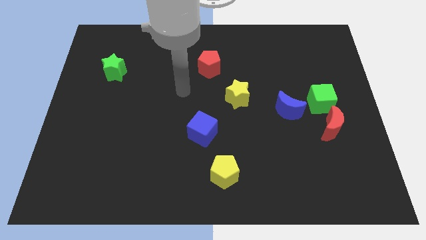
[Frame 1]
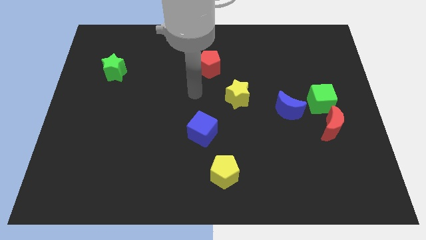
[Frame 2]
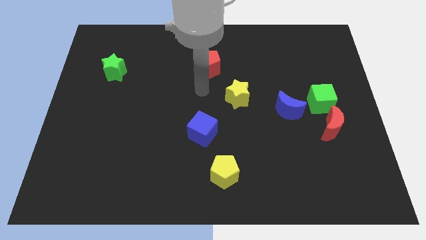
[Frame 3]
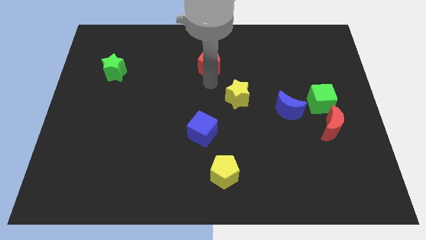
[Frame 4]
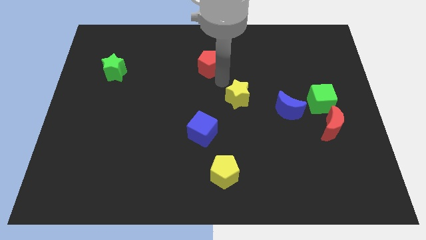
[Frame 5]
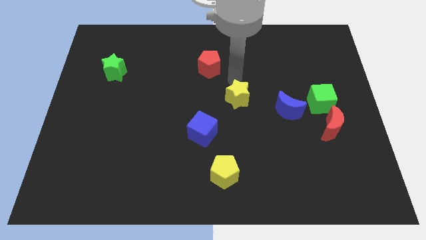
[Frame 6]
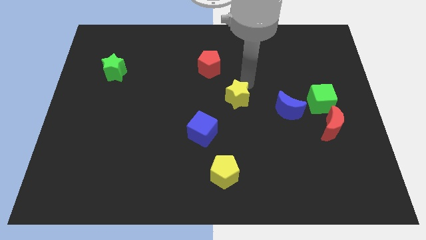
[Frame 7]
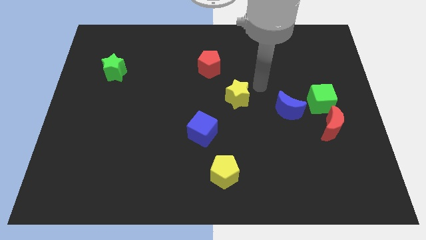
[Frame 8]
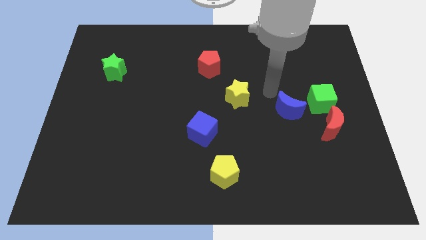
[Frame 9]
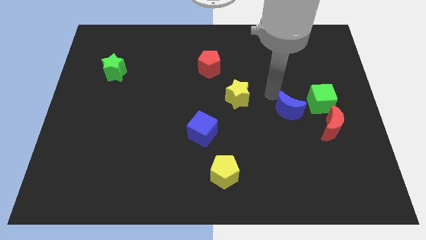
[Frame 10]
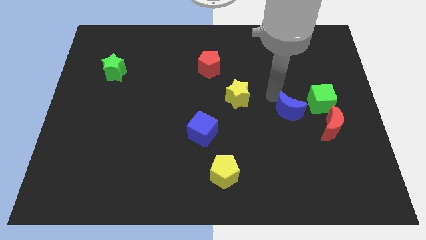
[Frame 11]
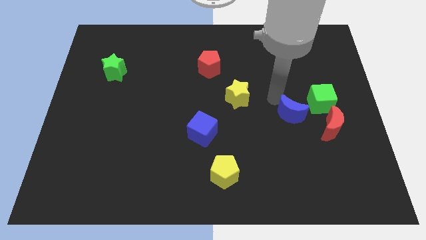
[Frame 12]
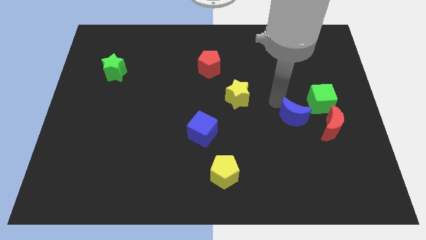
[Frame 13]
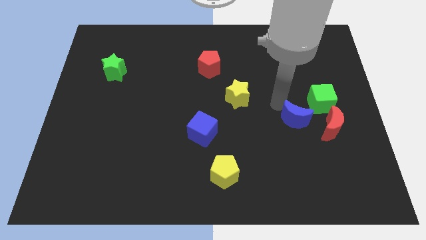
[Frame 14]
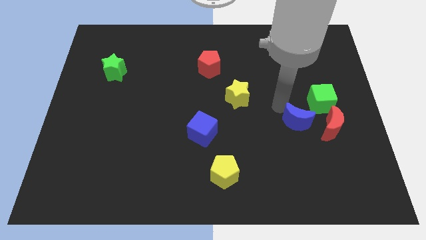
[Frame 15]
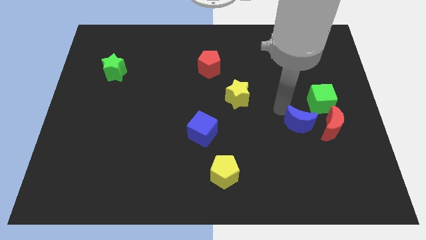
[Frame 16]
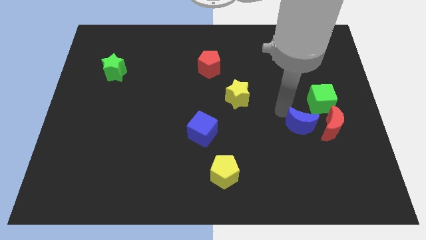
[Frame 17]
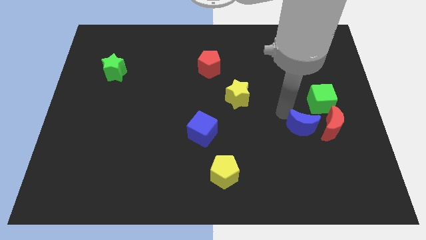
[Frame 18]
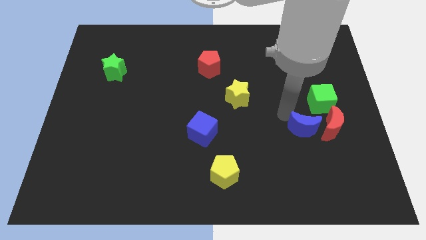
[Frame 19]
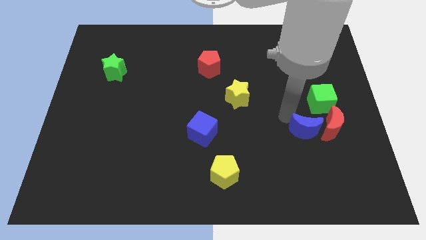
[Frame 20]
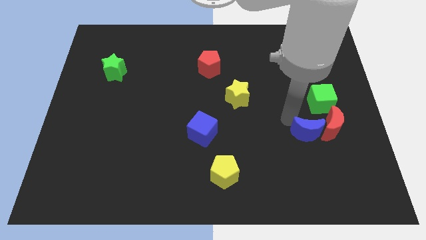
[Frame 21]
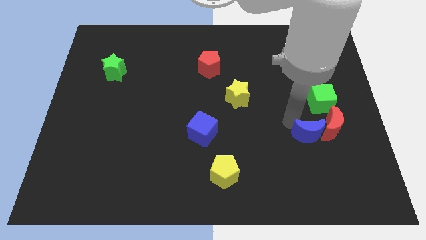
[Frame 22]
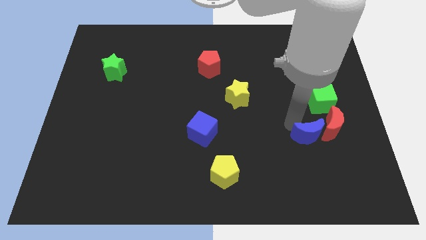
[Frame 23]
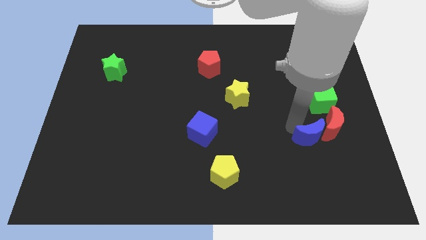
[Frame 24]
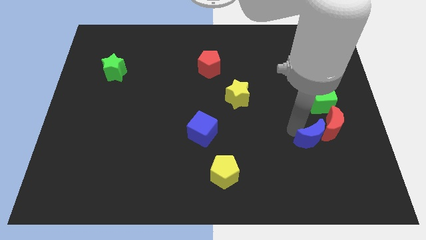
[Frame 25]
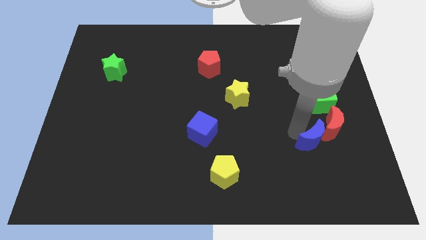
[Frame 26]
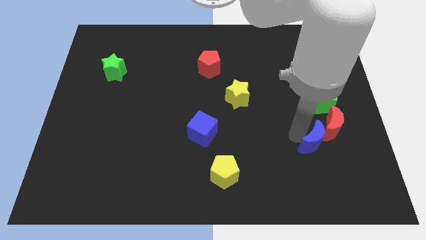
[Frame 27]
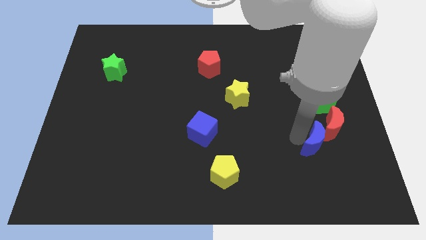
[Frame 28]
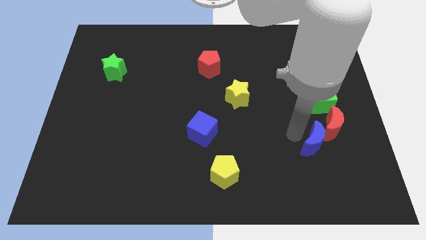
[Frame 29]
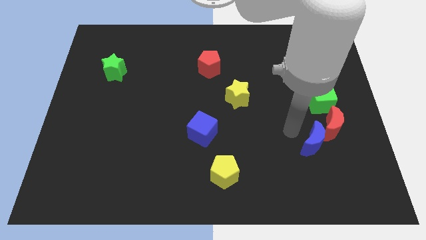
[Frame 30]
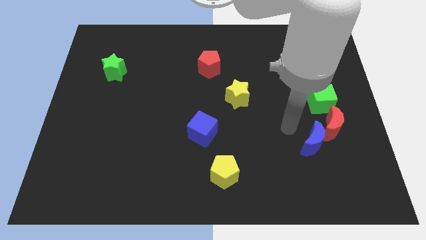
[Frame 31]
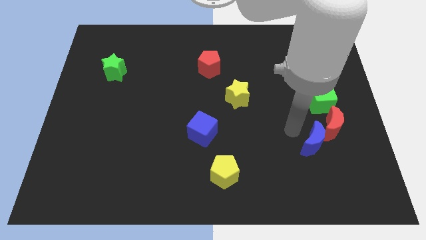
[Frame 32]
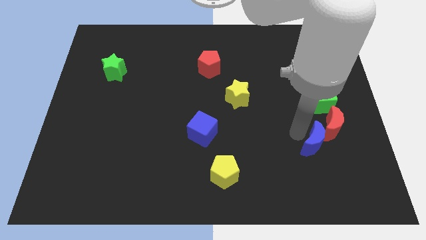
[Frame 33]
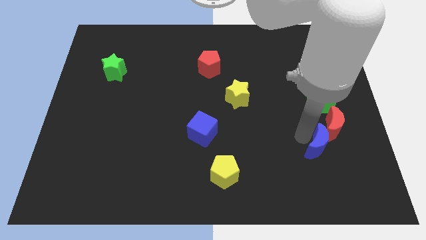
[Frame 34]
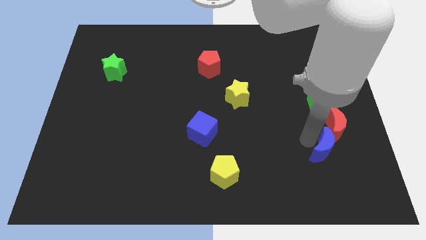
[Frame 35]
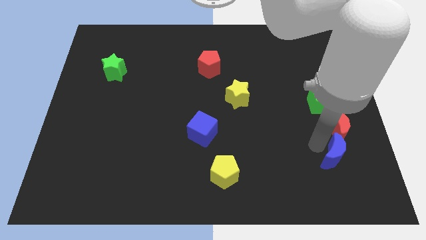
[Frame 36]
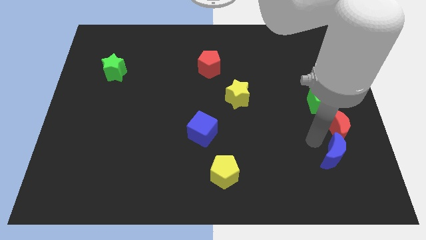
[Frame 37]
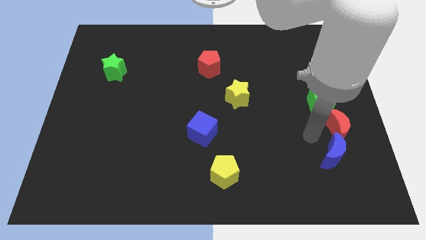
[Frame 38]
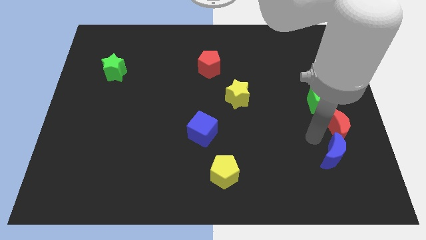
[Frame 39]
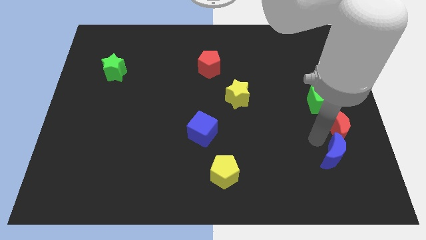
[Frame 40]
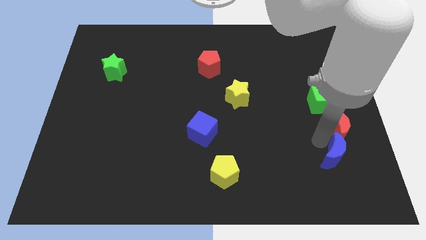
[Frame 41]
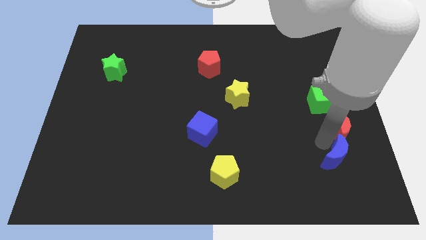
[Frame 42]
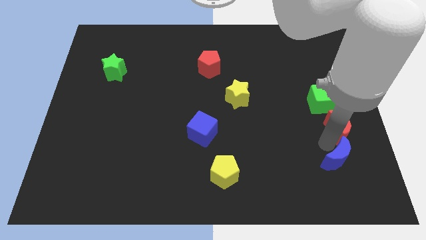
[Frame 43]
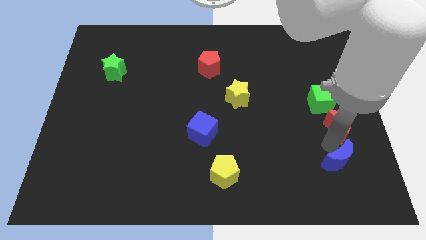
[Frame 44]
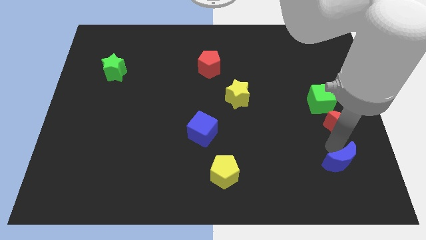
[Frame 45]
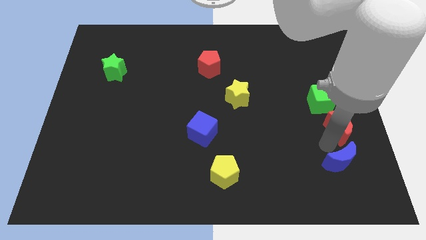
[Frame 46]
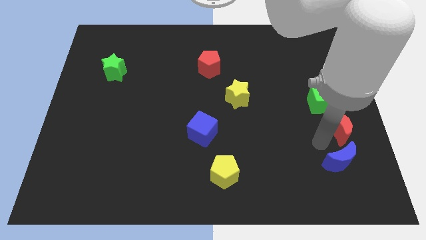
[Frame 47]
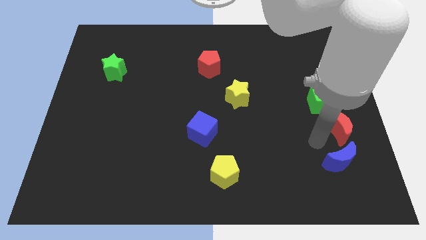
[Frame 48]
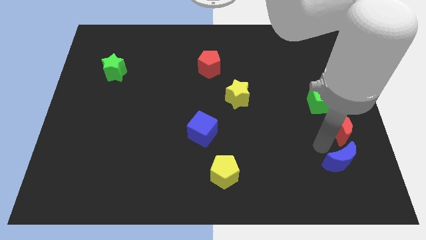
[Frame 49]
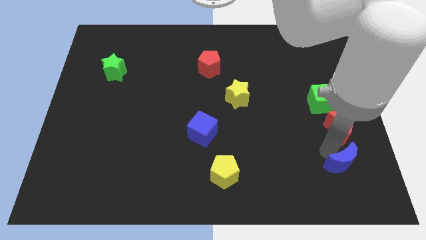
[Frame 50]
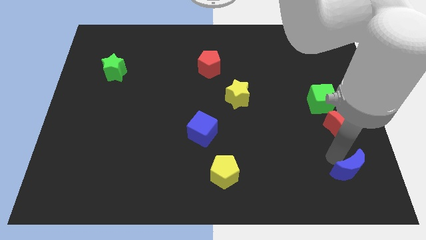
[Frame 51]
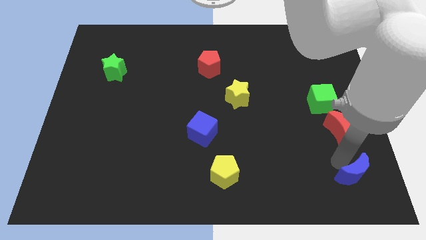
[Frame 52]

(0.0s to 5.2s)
move the blue moon to the bottom right of the board

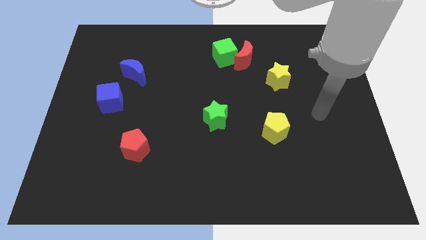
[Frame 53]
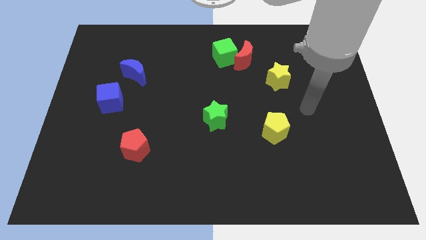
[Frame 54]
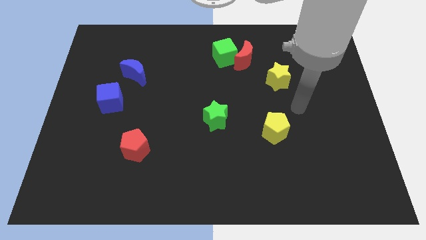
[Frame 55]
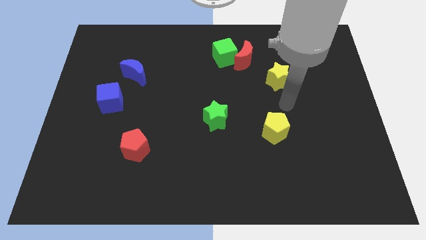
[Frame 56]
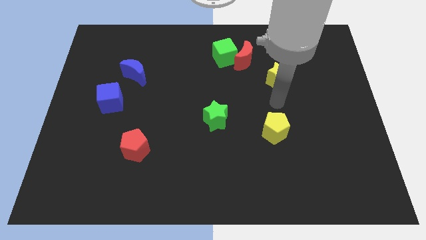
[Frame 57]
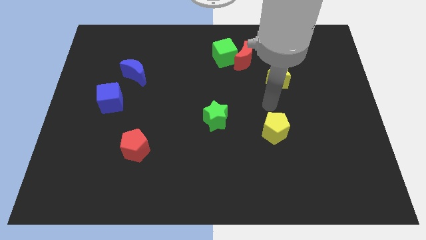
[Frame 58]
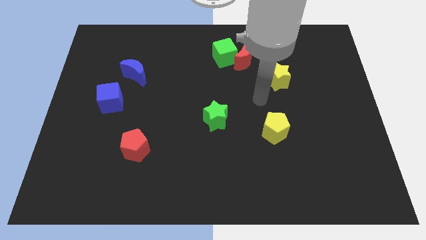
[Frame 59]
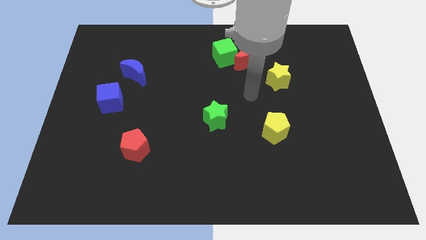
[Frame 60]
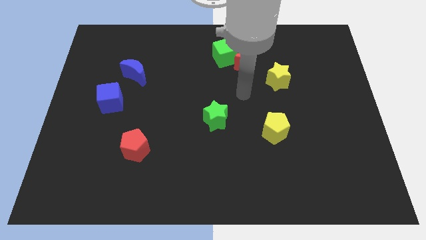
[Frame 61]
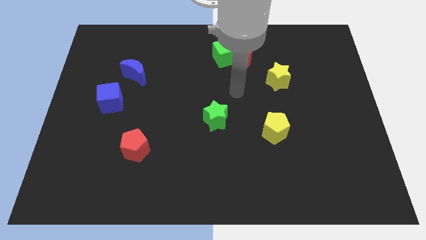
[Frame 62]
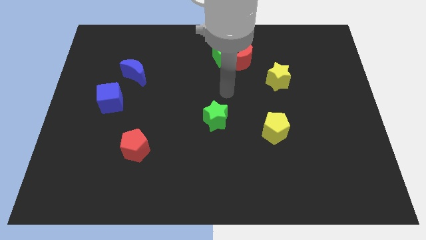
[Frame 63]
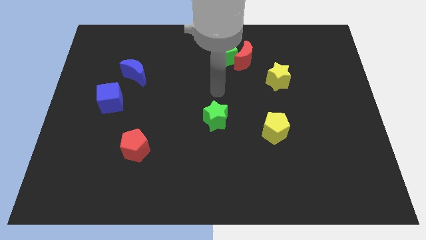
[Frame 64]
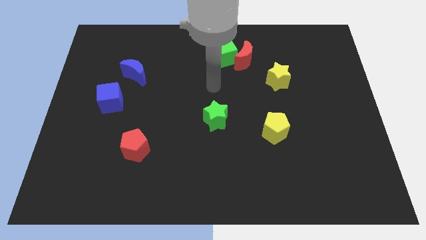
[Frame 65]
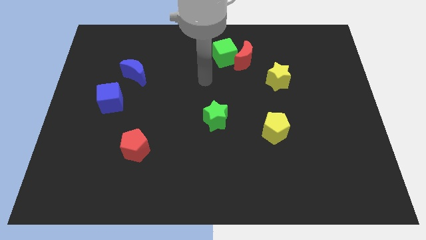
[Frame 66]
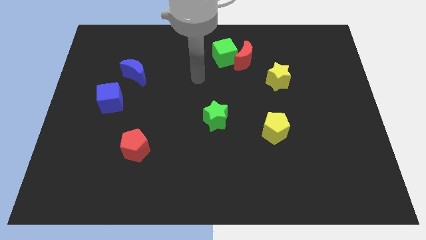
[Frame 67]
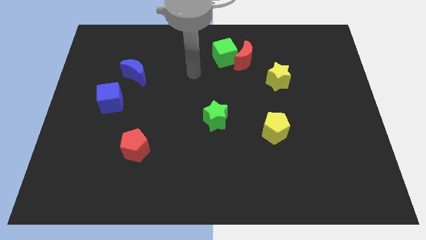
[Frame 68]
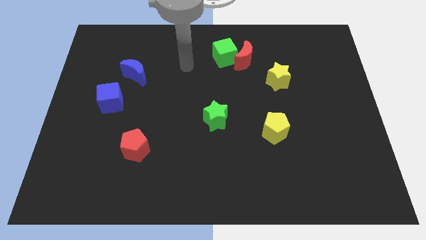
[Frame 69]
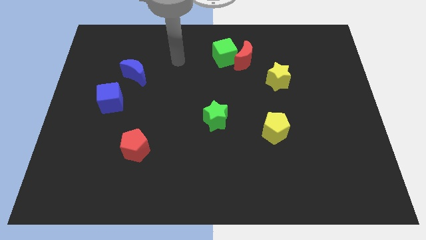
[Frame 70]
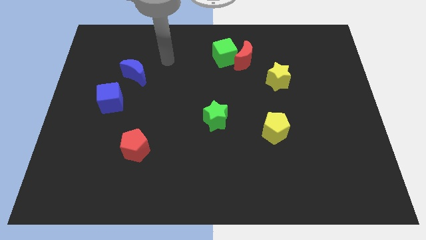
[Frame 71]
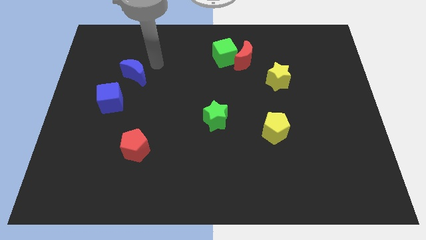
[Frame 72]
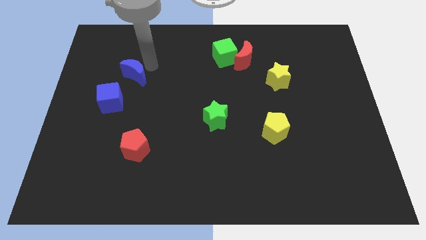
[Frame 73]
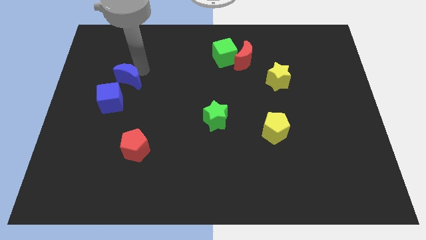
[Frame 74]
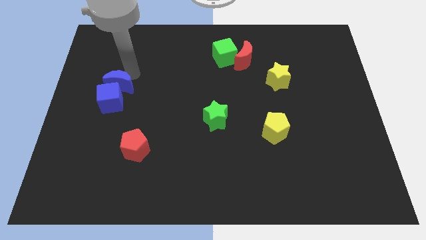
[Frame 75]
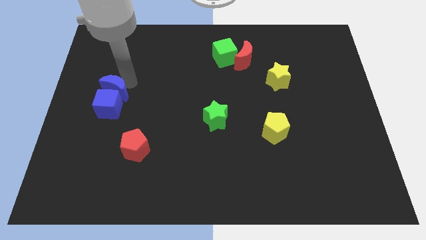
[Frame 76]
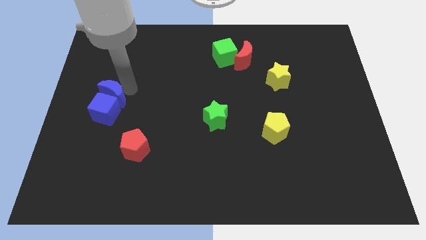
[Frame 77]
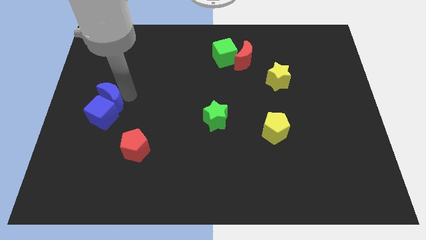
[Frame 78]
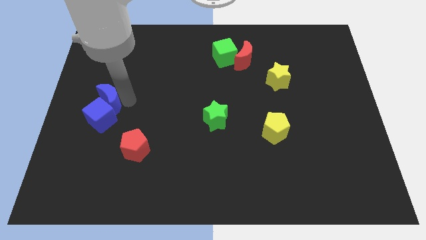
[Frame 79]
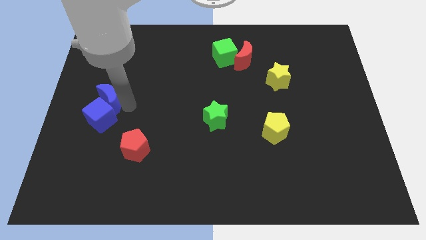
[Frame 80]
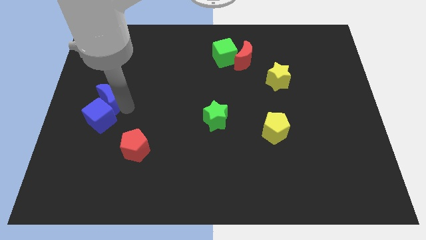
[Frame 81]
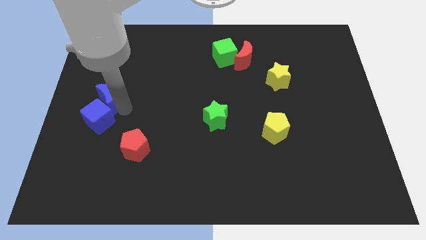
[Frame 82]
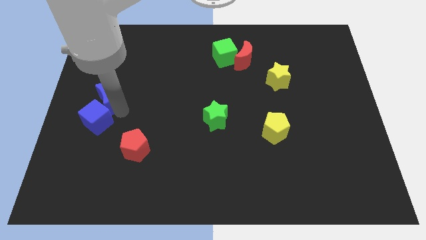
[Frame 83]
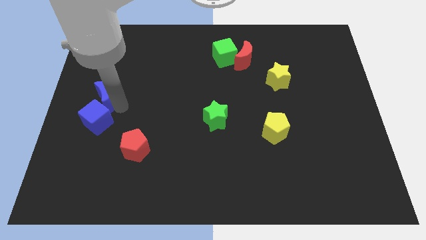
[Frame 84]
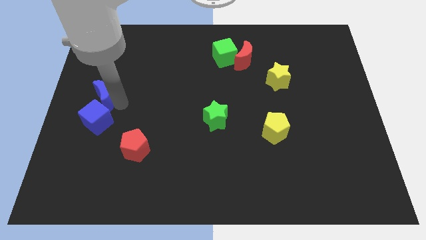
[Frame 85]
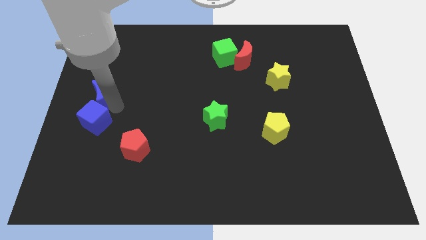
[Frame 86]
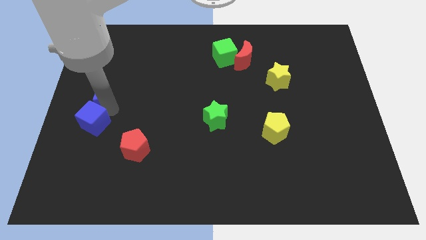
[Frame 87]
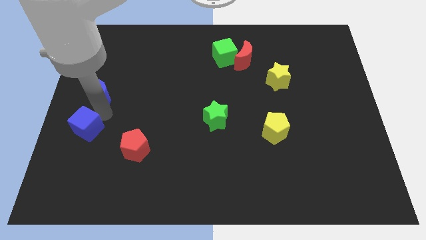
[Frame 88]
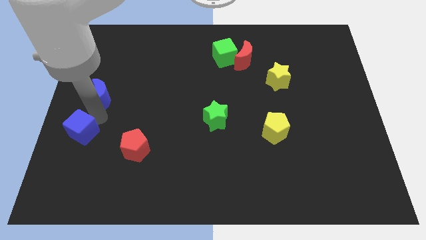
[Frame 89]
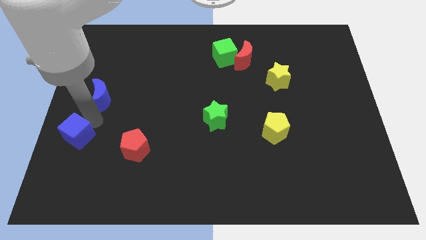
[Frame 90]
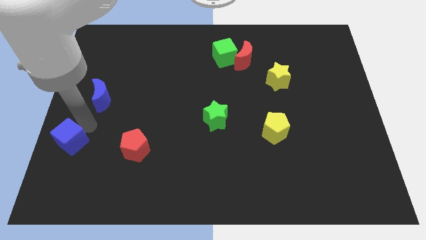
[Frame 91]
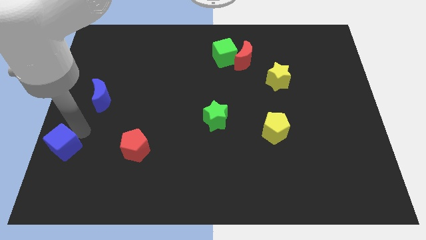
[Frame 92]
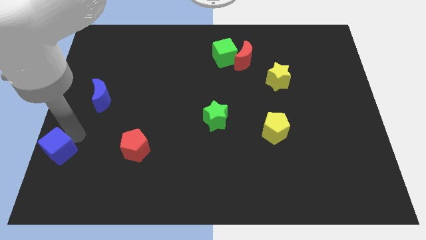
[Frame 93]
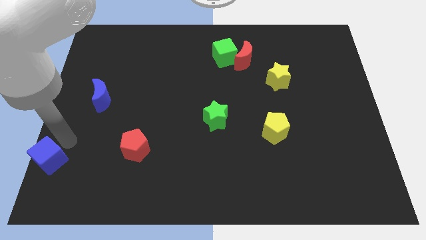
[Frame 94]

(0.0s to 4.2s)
slide the blue cube to the lower left corner
